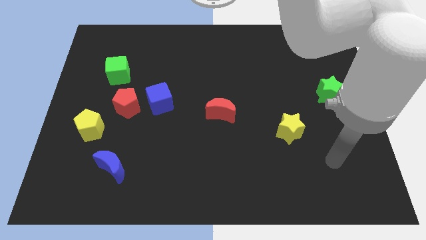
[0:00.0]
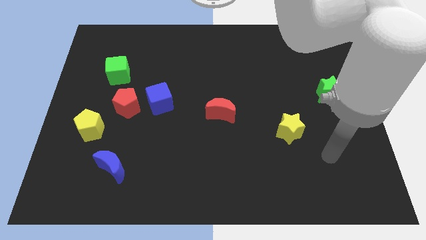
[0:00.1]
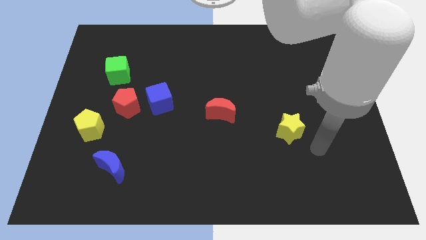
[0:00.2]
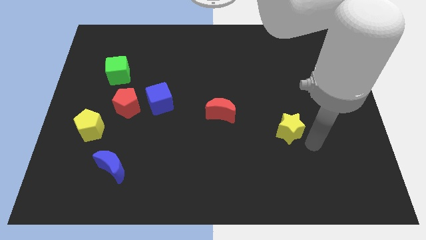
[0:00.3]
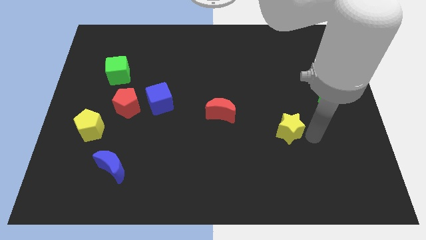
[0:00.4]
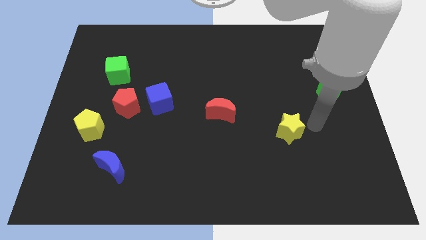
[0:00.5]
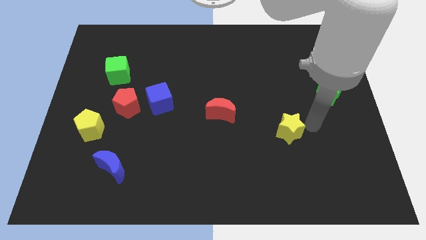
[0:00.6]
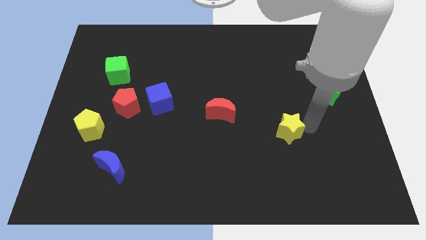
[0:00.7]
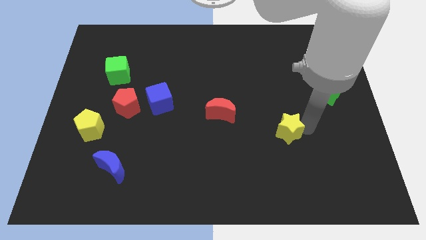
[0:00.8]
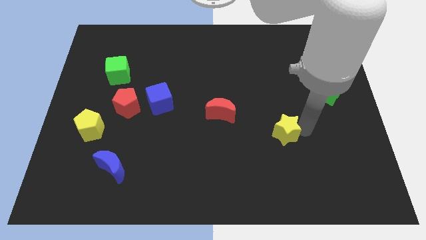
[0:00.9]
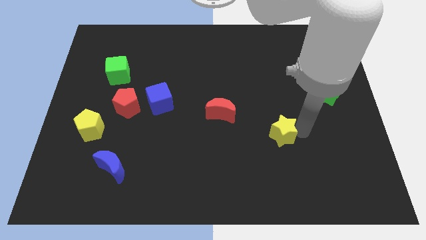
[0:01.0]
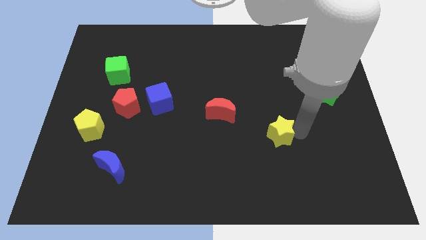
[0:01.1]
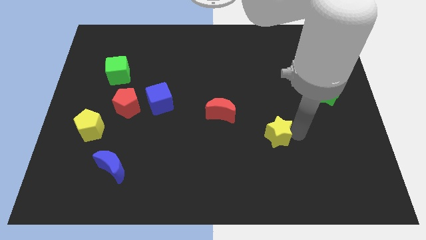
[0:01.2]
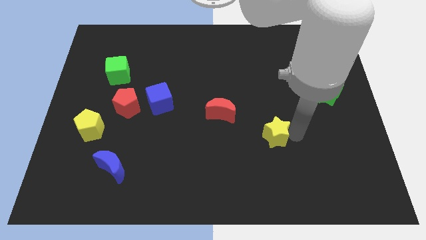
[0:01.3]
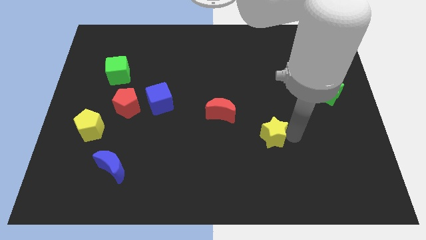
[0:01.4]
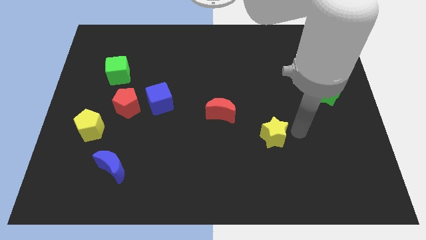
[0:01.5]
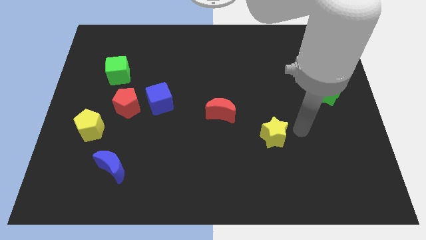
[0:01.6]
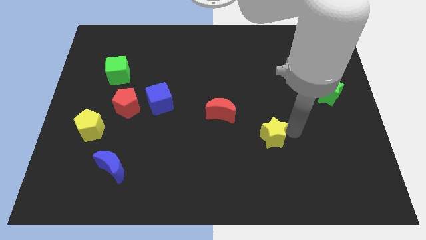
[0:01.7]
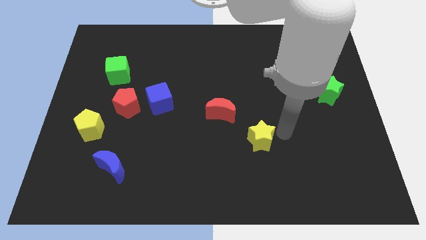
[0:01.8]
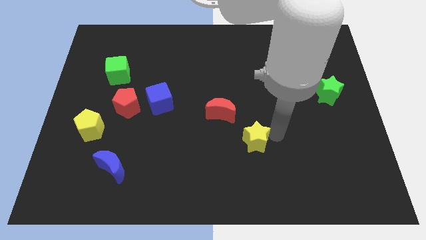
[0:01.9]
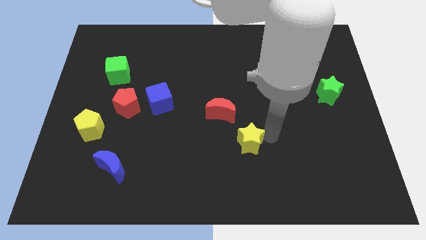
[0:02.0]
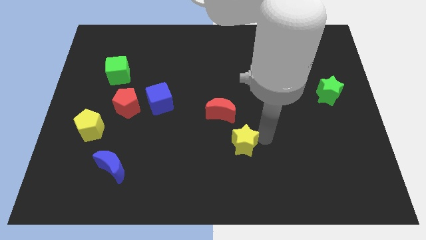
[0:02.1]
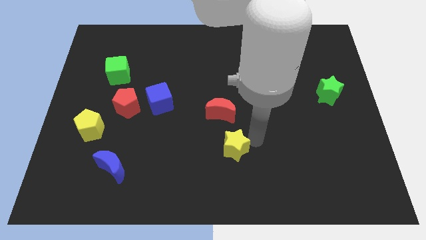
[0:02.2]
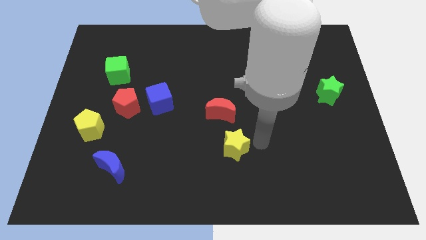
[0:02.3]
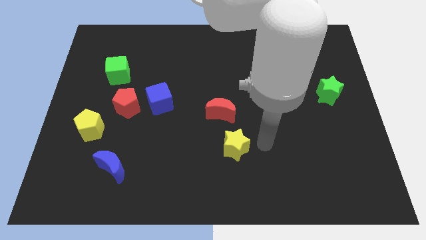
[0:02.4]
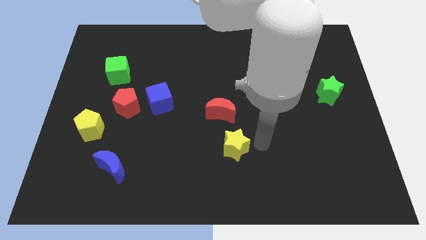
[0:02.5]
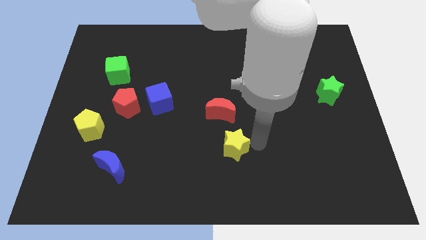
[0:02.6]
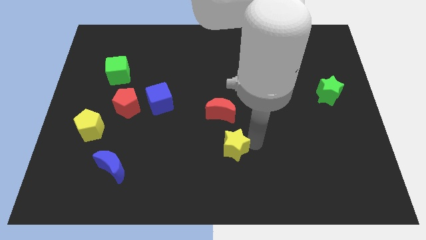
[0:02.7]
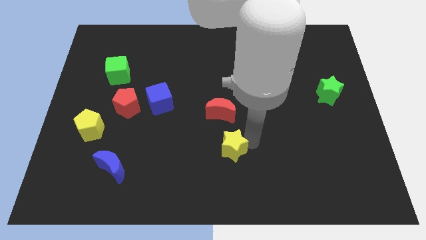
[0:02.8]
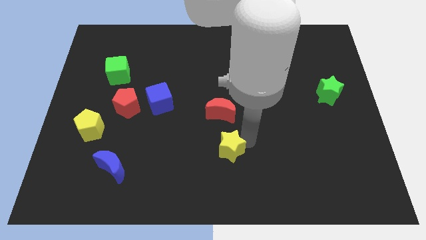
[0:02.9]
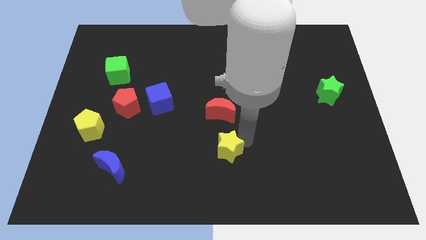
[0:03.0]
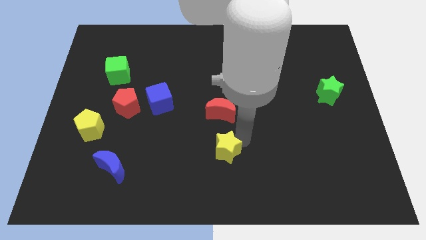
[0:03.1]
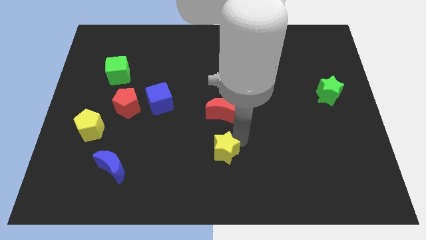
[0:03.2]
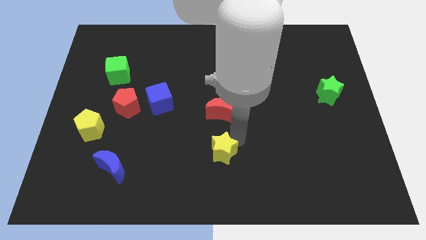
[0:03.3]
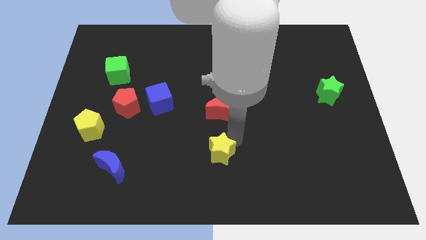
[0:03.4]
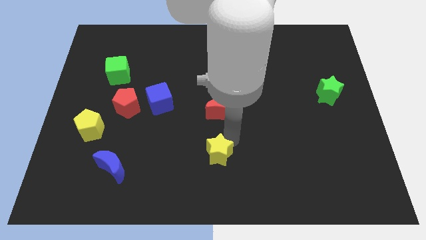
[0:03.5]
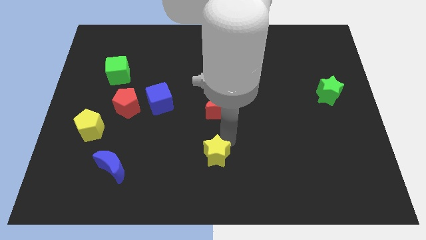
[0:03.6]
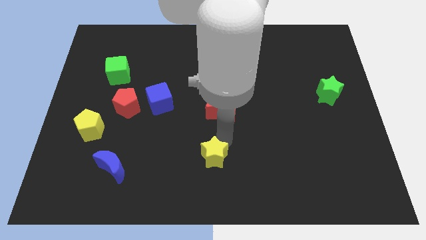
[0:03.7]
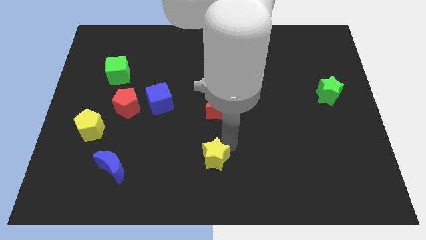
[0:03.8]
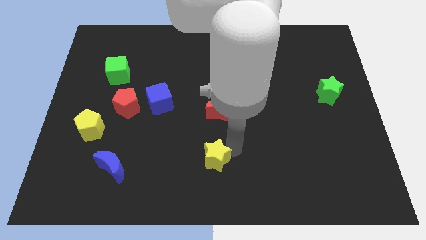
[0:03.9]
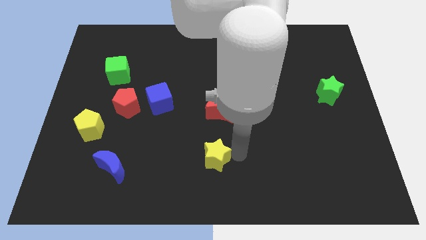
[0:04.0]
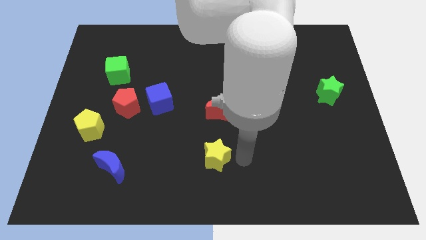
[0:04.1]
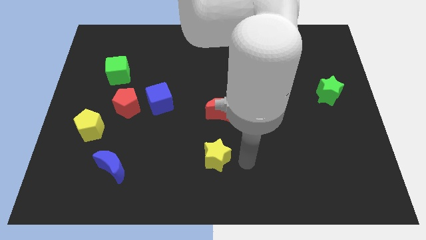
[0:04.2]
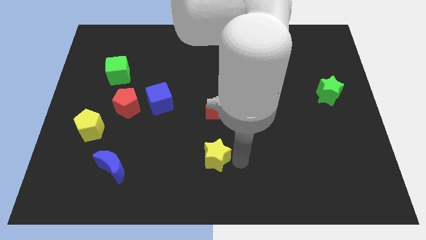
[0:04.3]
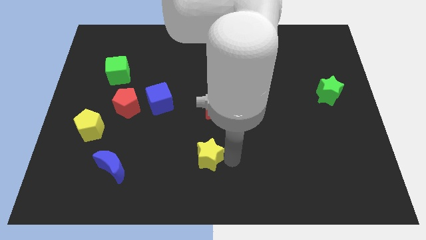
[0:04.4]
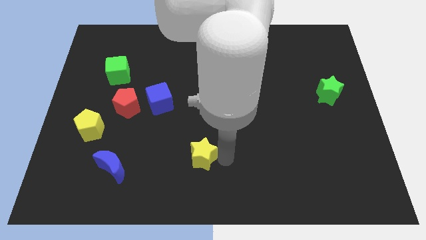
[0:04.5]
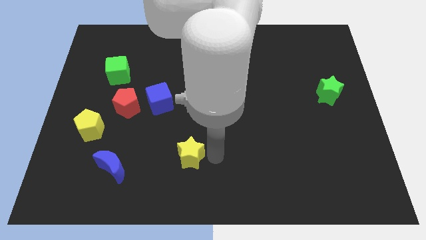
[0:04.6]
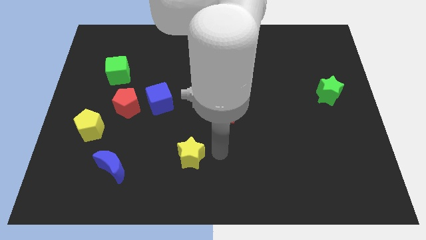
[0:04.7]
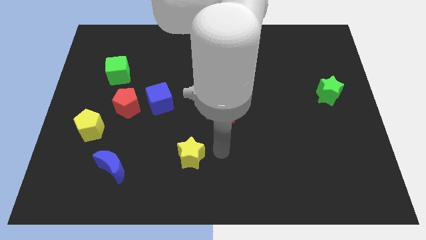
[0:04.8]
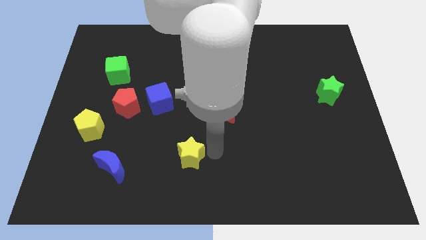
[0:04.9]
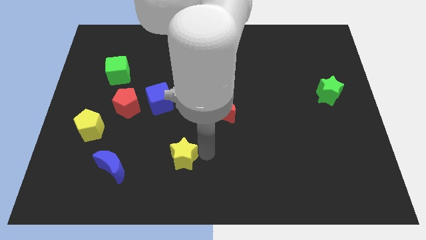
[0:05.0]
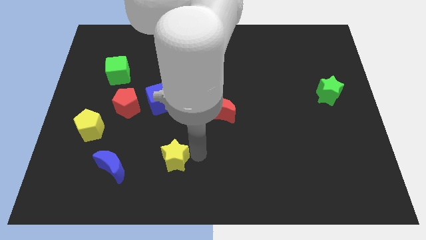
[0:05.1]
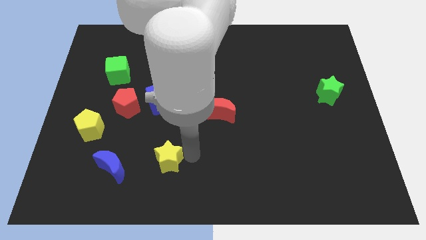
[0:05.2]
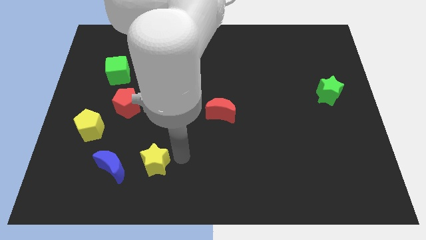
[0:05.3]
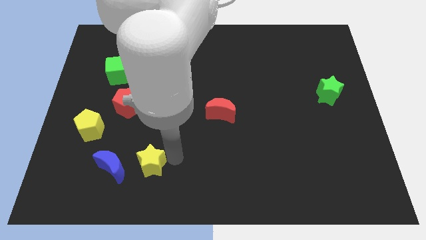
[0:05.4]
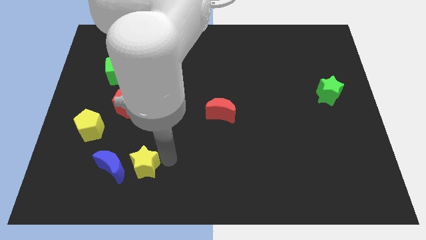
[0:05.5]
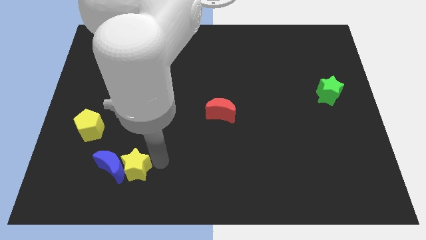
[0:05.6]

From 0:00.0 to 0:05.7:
move the yellow star to the blue moon

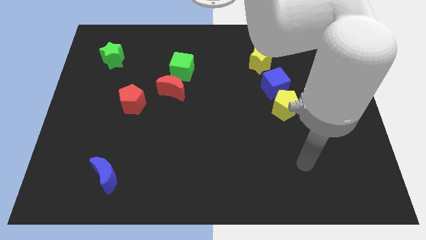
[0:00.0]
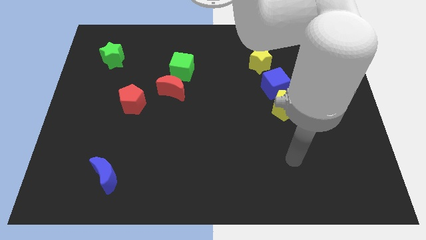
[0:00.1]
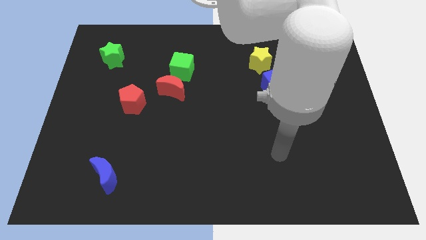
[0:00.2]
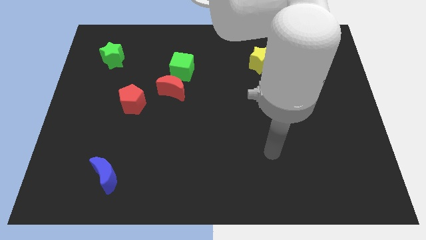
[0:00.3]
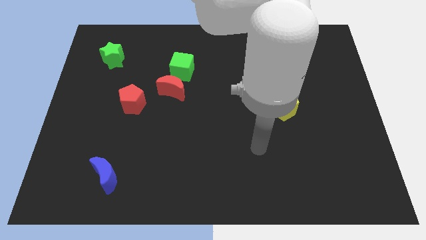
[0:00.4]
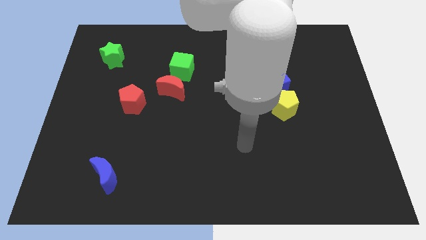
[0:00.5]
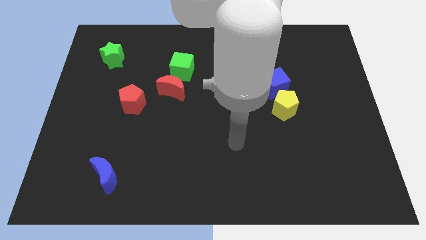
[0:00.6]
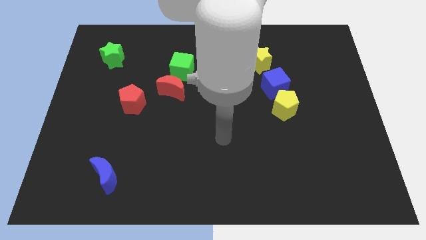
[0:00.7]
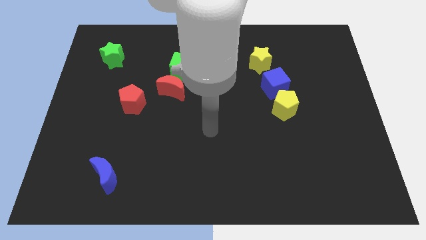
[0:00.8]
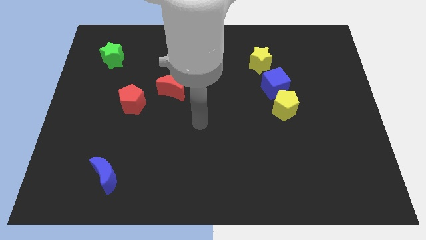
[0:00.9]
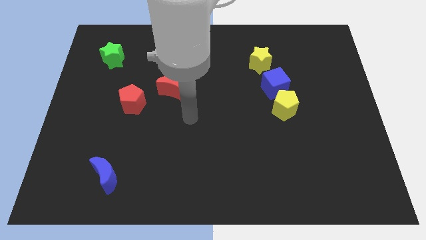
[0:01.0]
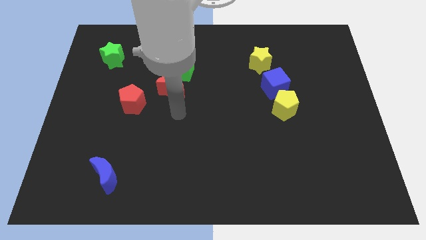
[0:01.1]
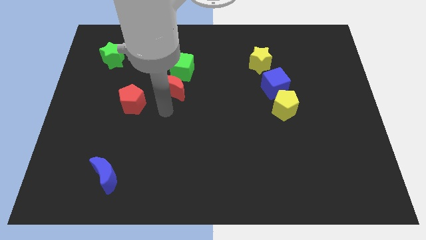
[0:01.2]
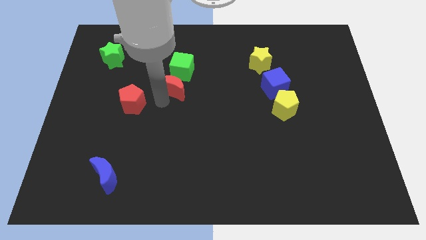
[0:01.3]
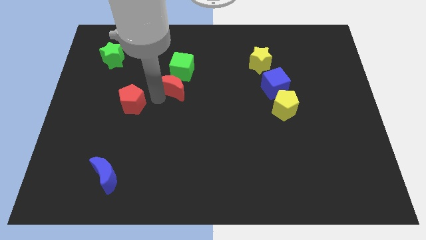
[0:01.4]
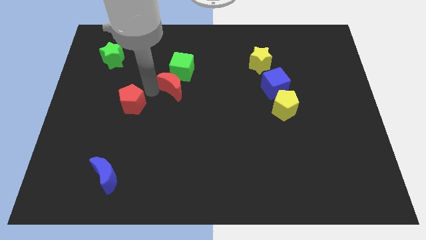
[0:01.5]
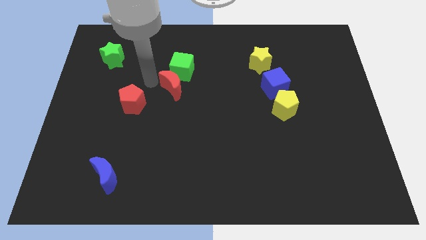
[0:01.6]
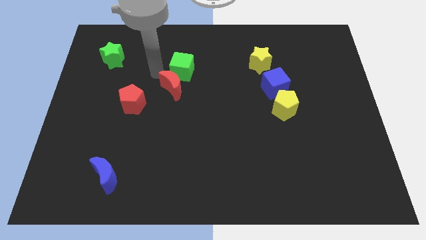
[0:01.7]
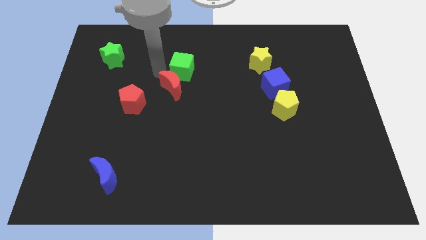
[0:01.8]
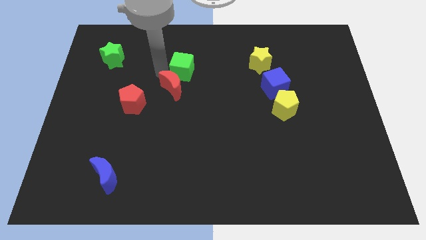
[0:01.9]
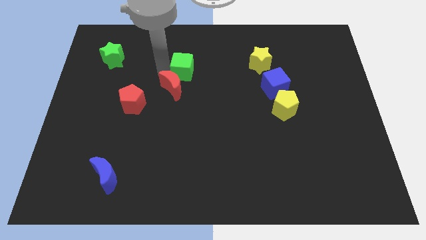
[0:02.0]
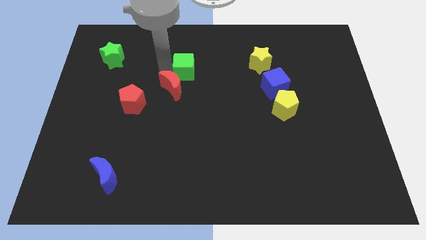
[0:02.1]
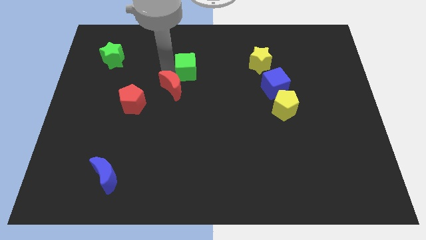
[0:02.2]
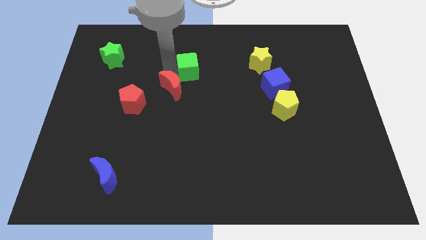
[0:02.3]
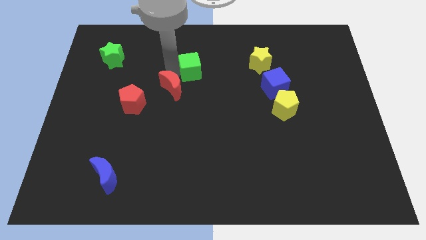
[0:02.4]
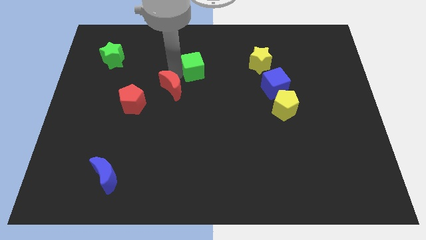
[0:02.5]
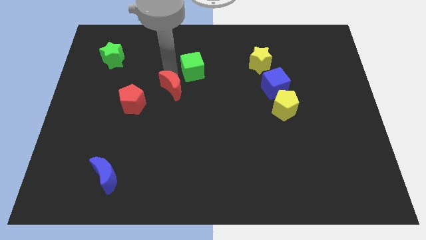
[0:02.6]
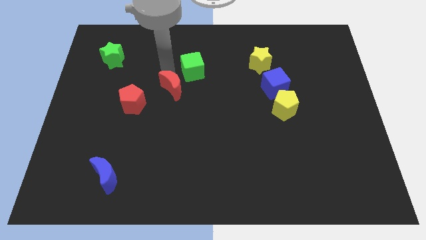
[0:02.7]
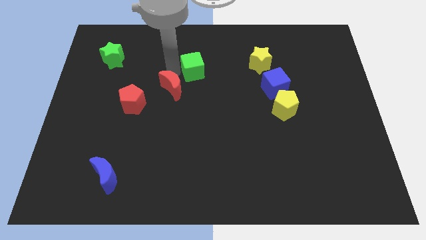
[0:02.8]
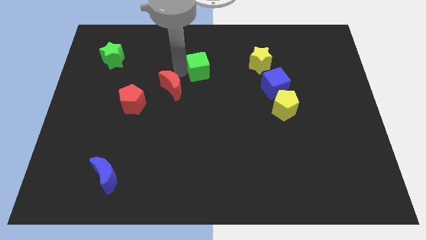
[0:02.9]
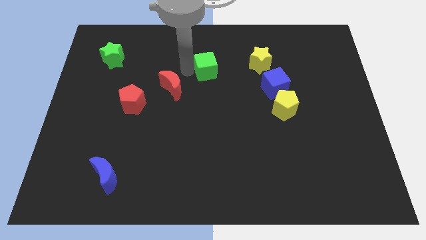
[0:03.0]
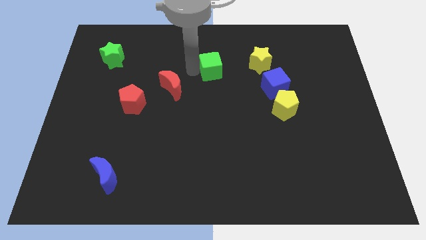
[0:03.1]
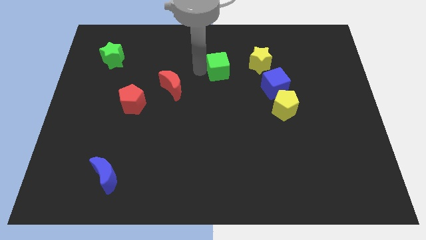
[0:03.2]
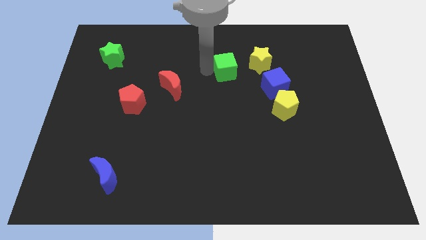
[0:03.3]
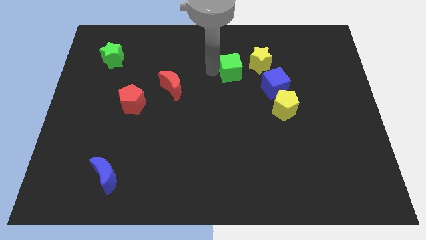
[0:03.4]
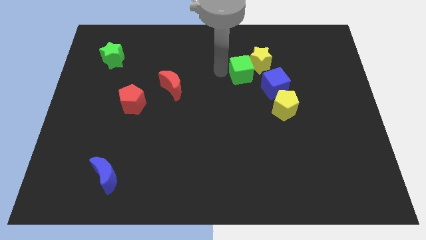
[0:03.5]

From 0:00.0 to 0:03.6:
push the green cube to the yellow star
